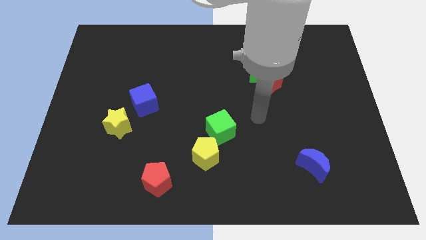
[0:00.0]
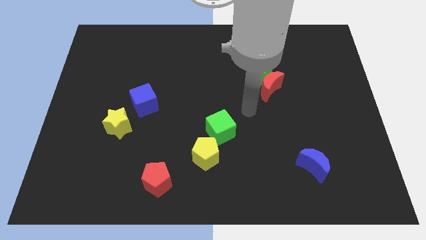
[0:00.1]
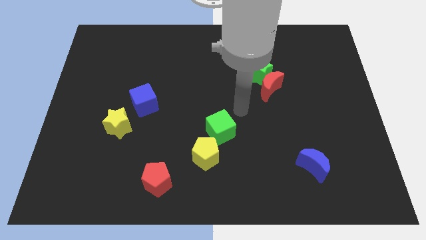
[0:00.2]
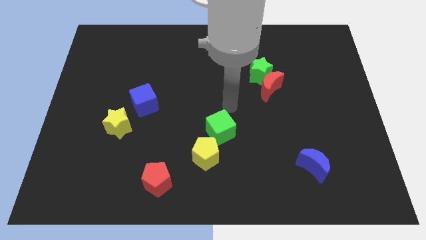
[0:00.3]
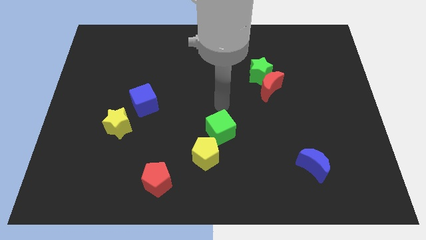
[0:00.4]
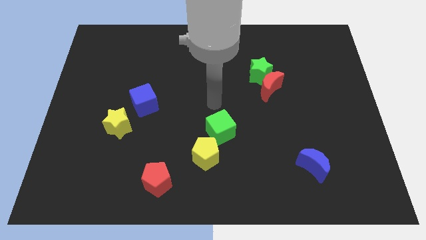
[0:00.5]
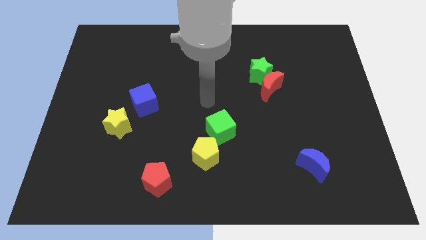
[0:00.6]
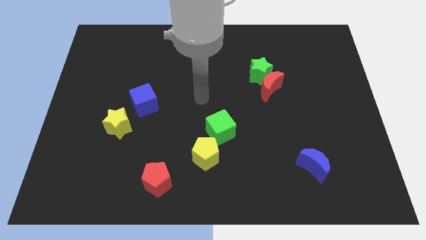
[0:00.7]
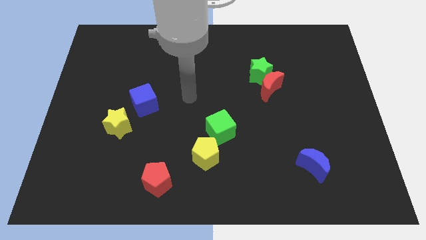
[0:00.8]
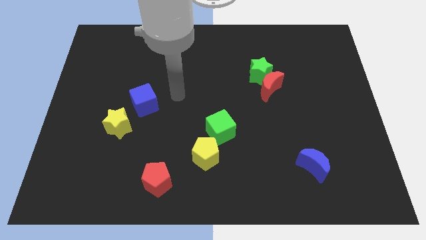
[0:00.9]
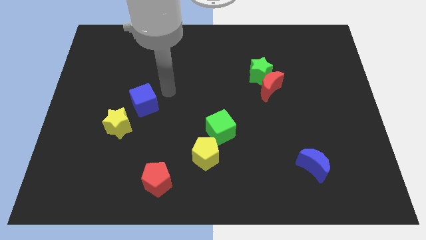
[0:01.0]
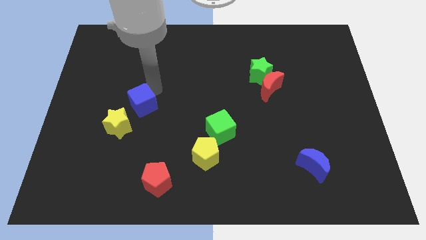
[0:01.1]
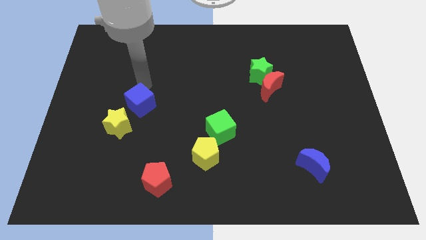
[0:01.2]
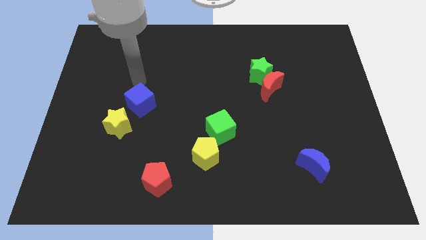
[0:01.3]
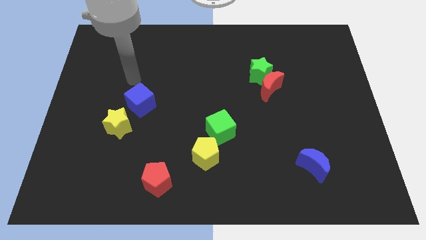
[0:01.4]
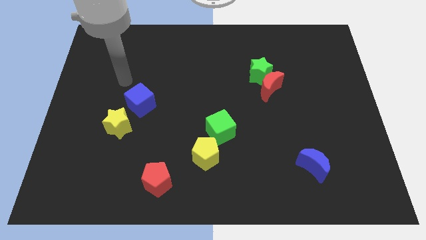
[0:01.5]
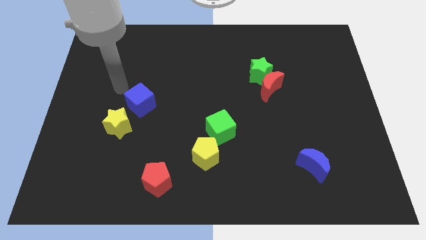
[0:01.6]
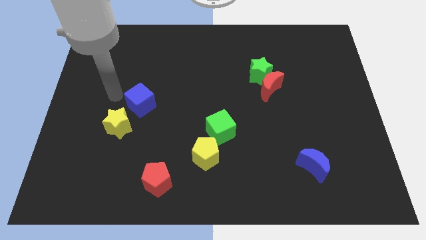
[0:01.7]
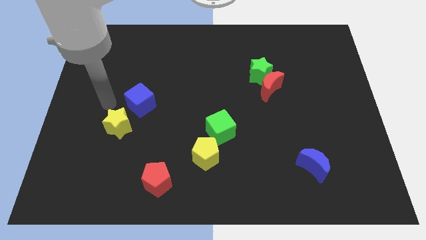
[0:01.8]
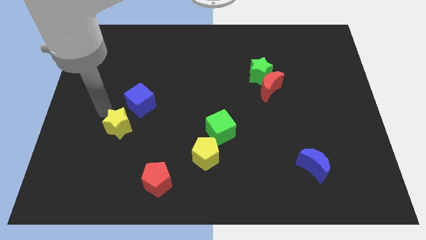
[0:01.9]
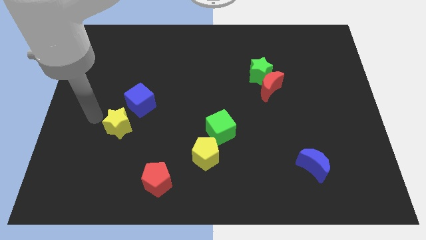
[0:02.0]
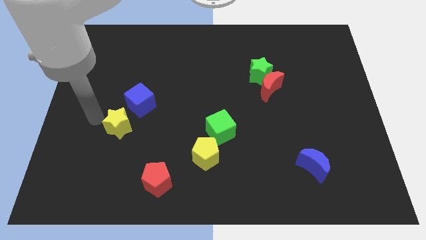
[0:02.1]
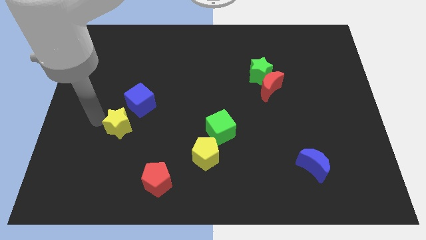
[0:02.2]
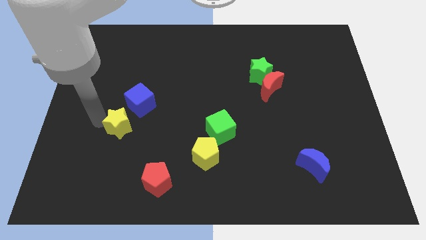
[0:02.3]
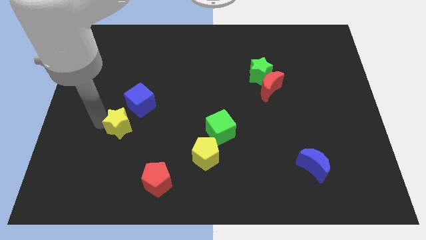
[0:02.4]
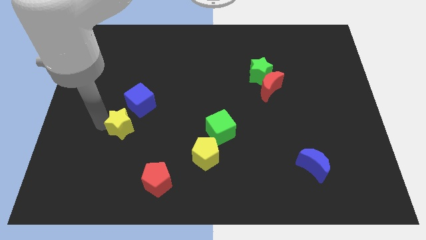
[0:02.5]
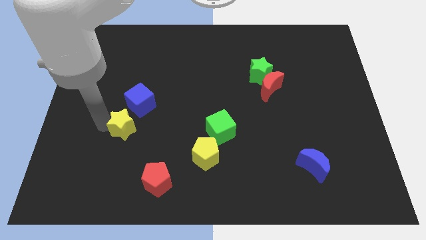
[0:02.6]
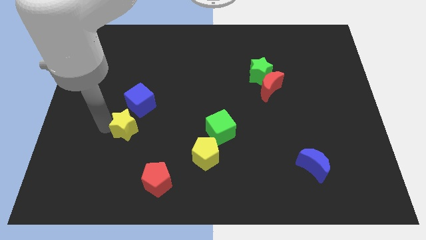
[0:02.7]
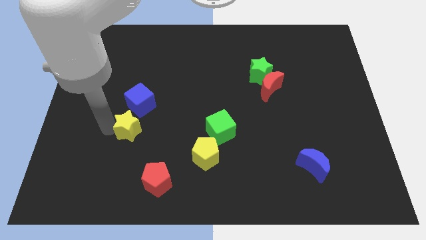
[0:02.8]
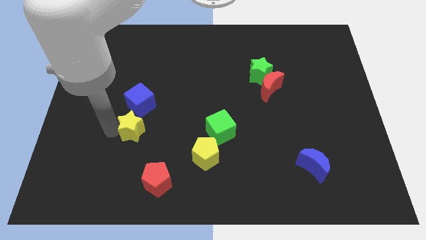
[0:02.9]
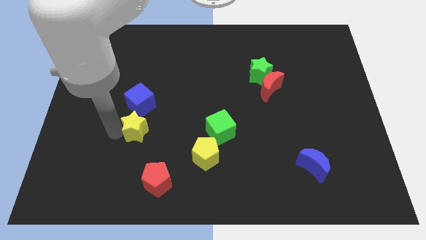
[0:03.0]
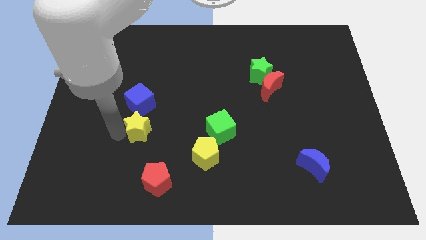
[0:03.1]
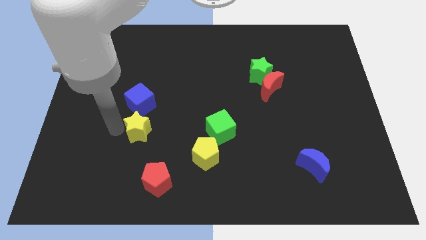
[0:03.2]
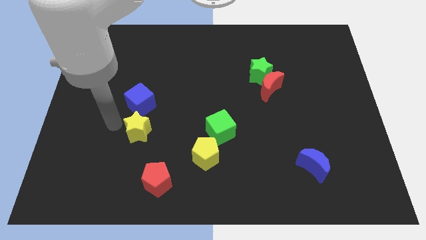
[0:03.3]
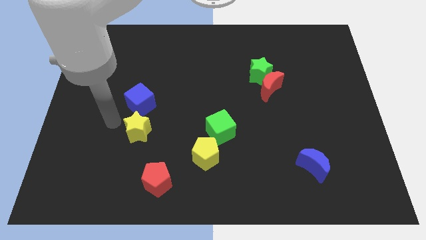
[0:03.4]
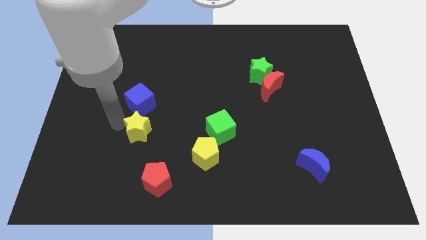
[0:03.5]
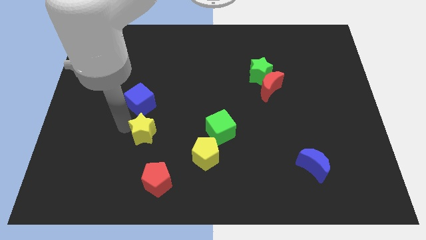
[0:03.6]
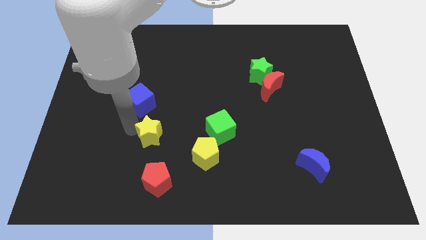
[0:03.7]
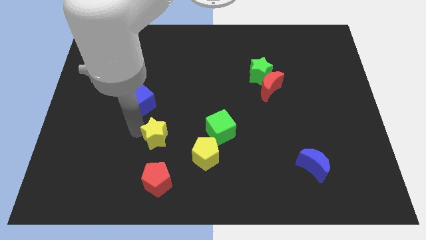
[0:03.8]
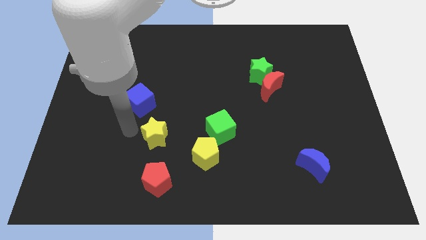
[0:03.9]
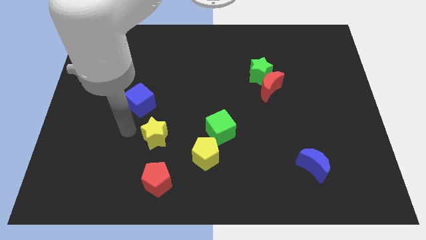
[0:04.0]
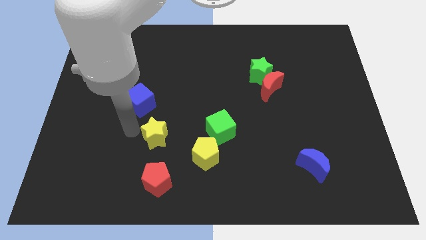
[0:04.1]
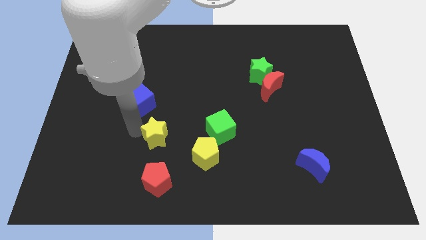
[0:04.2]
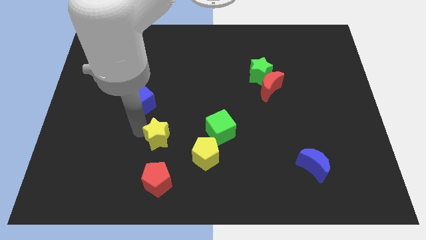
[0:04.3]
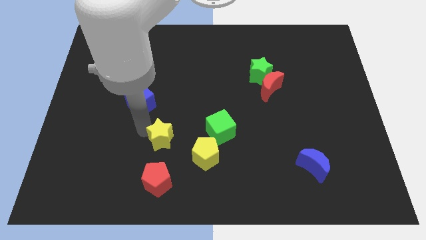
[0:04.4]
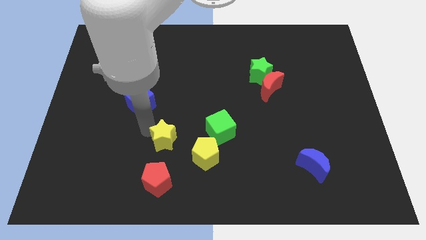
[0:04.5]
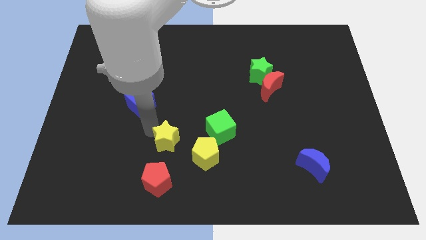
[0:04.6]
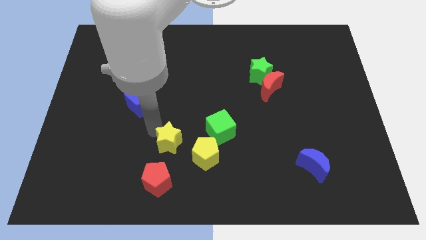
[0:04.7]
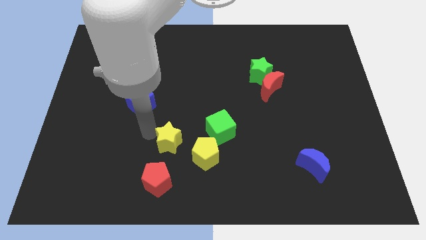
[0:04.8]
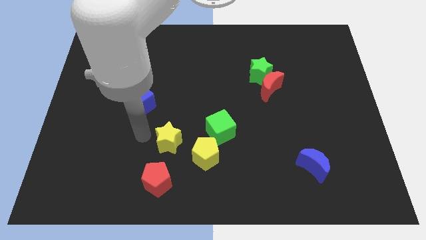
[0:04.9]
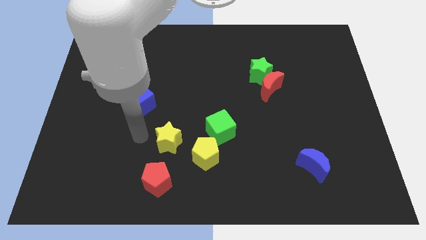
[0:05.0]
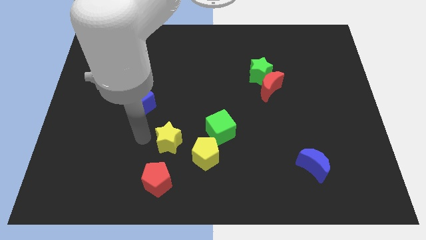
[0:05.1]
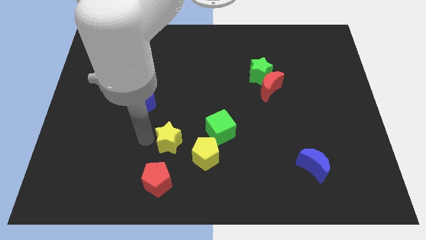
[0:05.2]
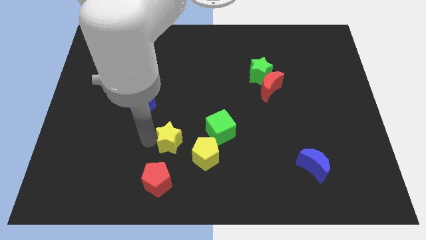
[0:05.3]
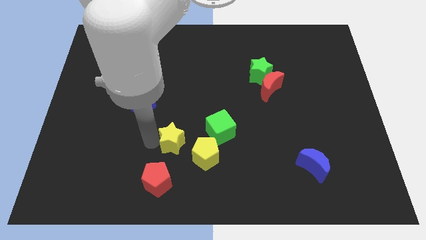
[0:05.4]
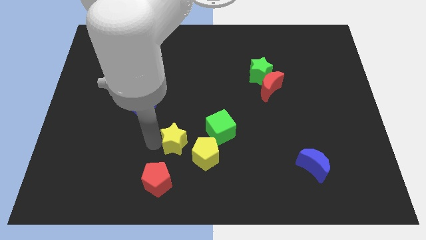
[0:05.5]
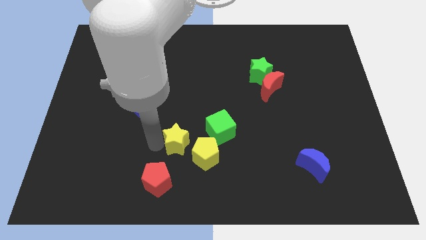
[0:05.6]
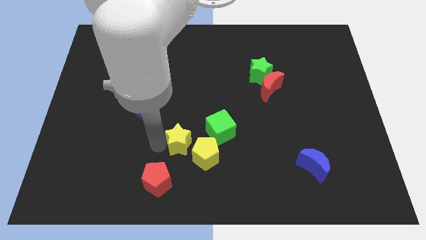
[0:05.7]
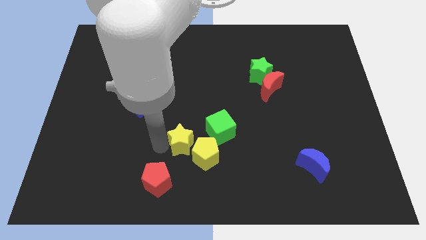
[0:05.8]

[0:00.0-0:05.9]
move the yellow star close to the yellow pentagon

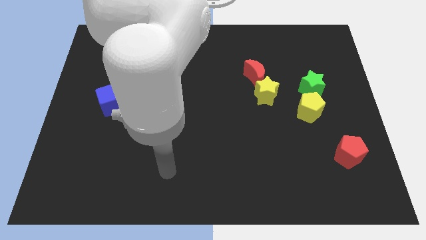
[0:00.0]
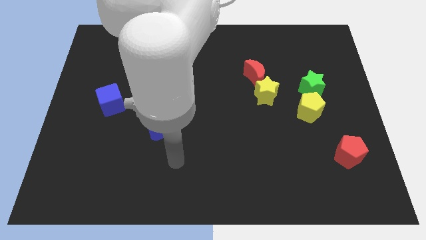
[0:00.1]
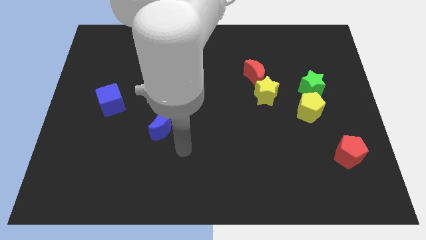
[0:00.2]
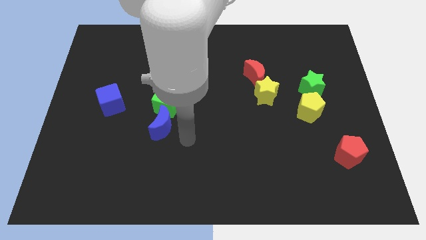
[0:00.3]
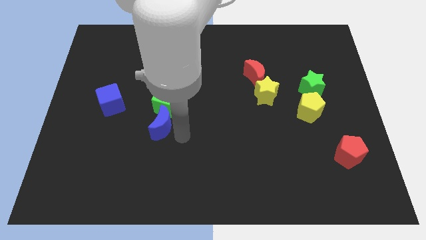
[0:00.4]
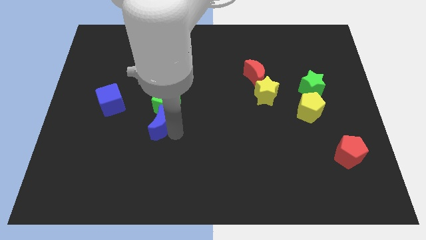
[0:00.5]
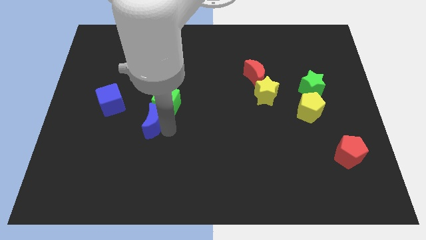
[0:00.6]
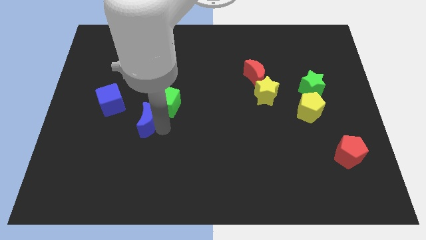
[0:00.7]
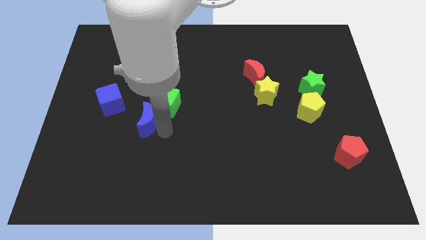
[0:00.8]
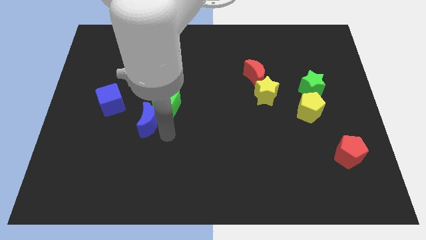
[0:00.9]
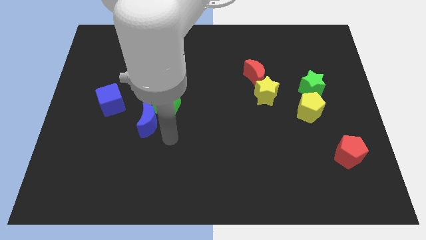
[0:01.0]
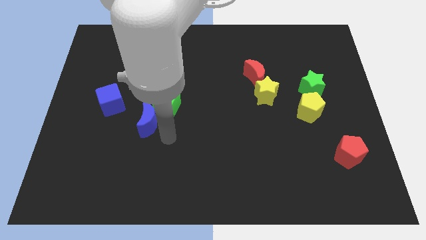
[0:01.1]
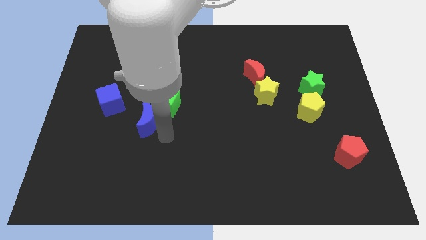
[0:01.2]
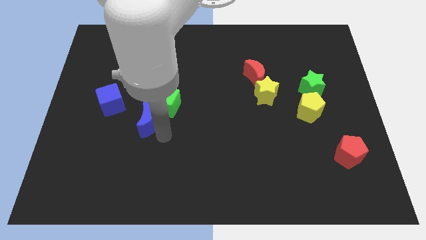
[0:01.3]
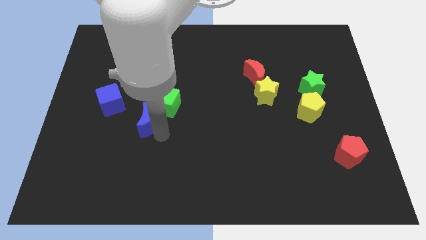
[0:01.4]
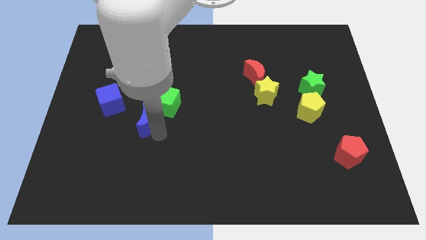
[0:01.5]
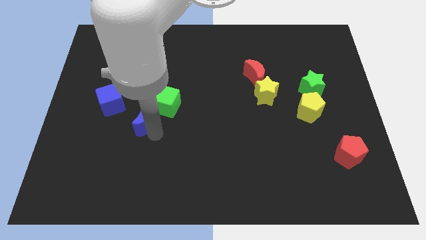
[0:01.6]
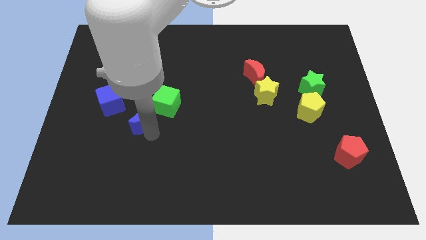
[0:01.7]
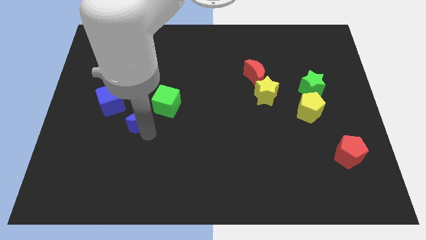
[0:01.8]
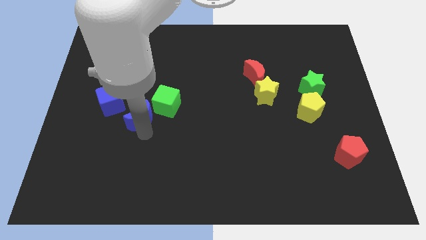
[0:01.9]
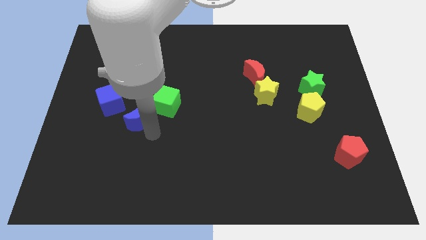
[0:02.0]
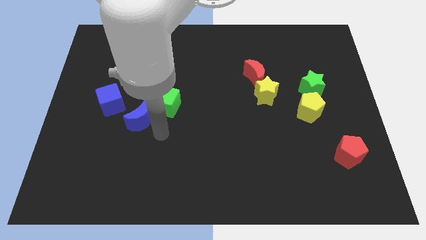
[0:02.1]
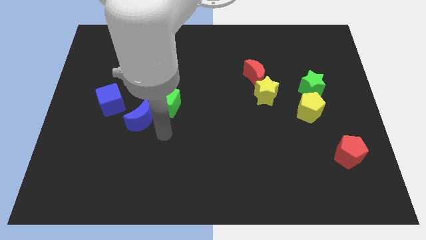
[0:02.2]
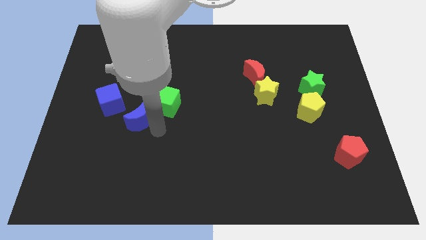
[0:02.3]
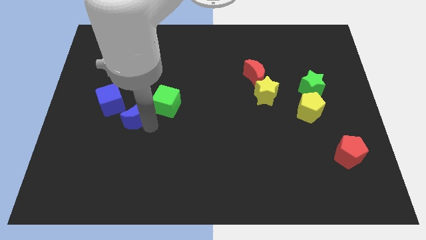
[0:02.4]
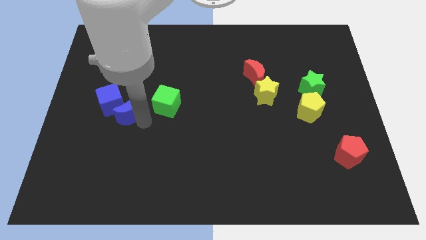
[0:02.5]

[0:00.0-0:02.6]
slide the blue moon next to the blue cube
